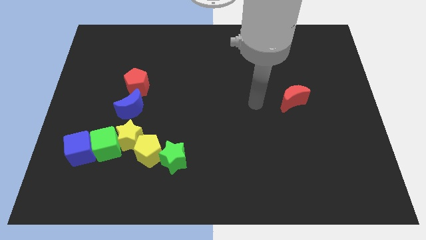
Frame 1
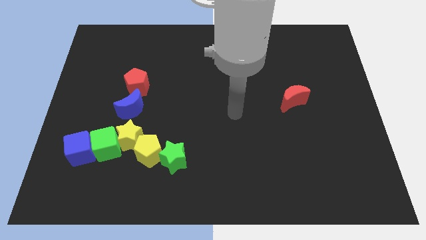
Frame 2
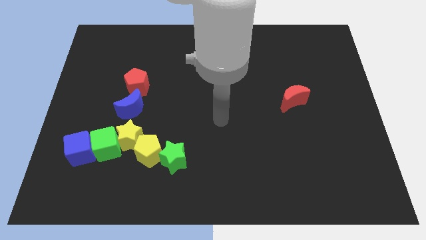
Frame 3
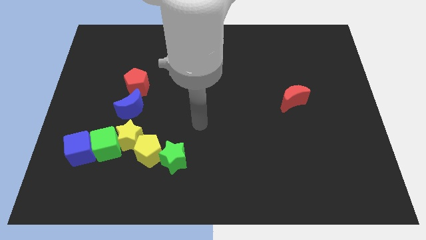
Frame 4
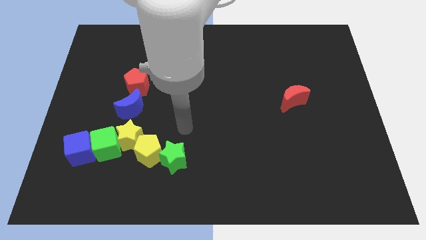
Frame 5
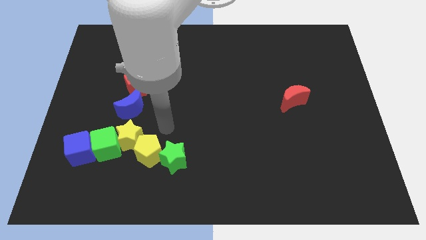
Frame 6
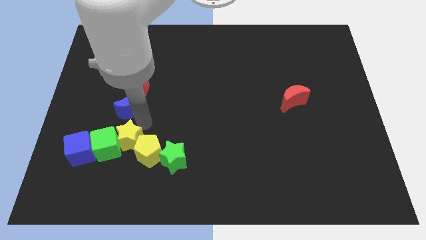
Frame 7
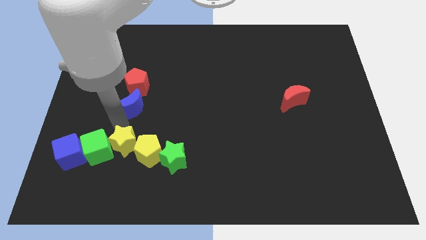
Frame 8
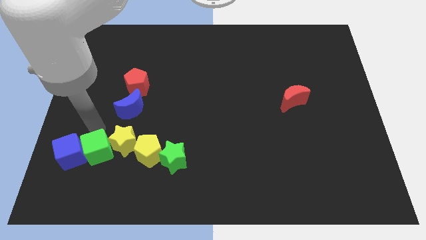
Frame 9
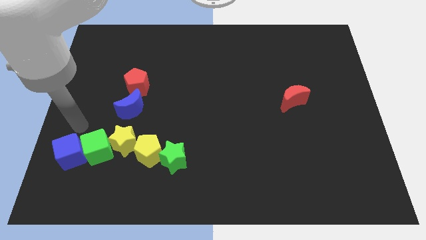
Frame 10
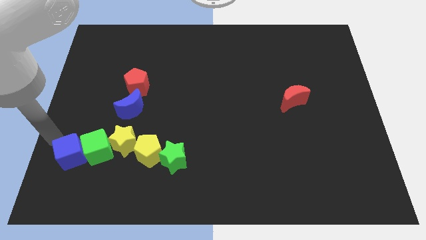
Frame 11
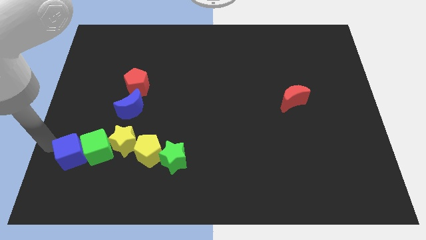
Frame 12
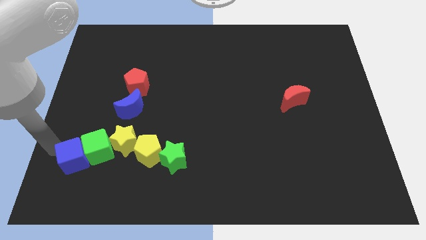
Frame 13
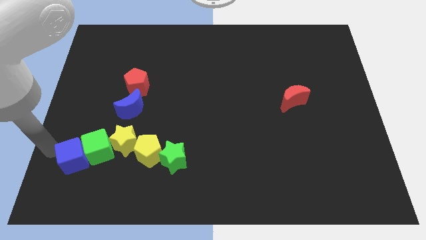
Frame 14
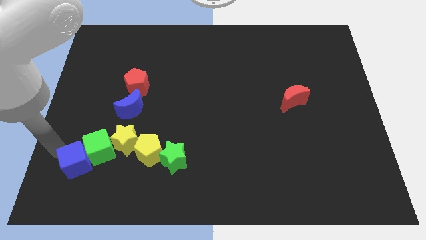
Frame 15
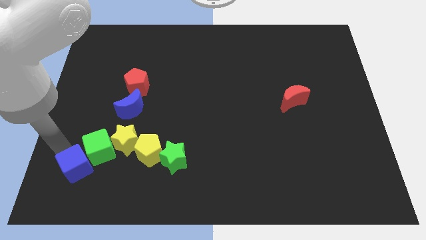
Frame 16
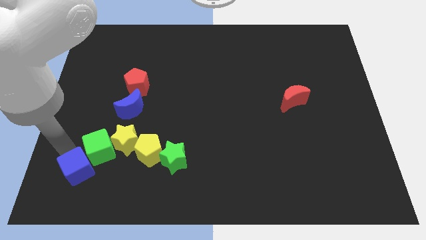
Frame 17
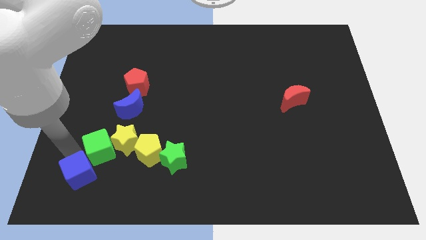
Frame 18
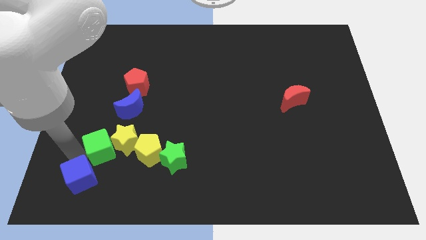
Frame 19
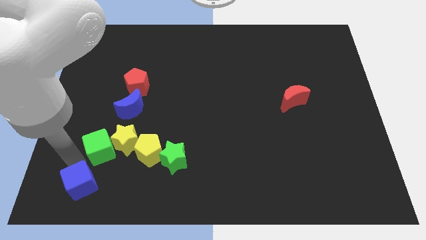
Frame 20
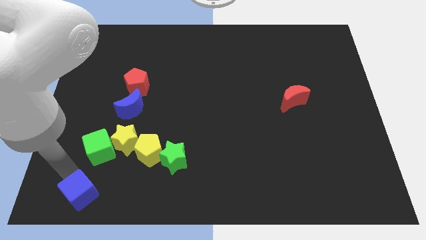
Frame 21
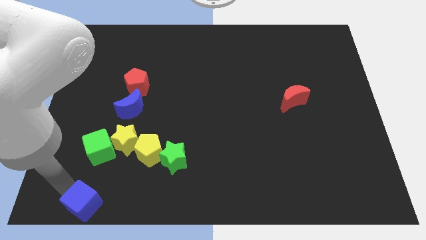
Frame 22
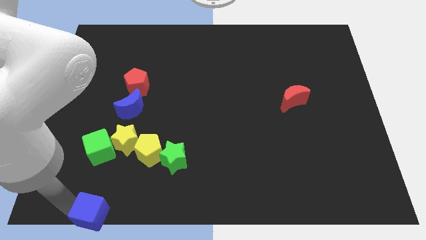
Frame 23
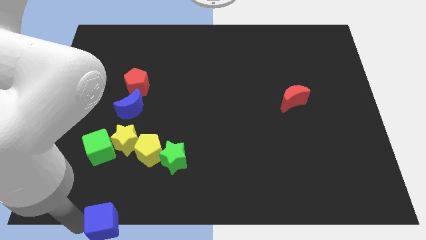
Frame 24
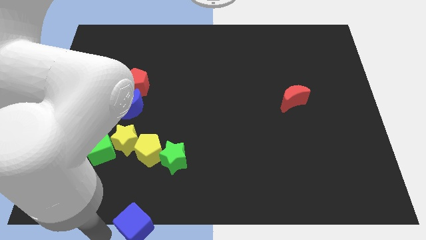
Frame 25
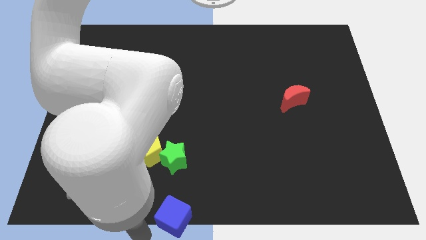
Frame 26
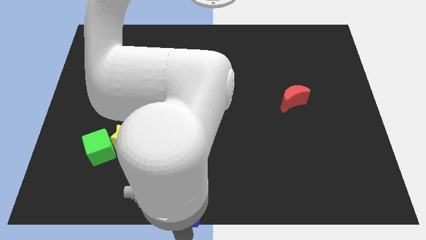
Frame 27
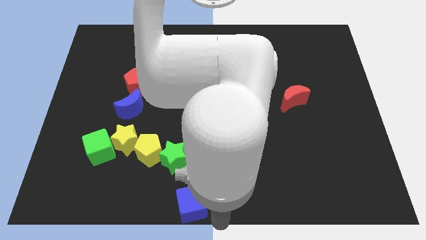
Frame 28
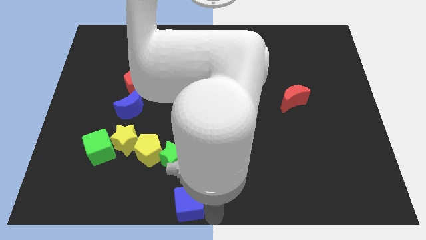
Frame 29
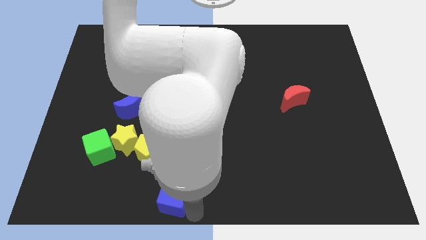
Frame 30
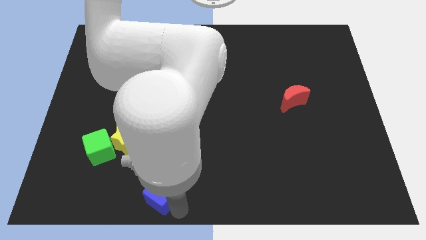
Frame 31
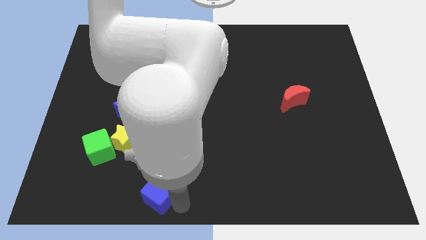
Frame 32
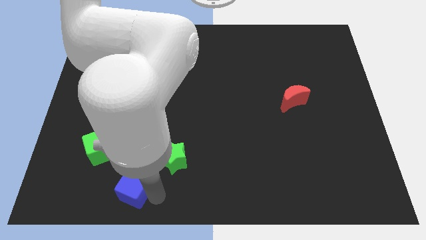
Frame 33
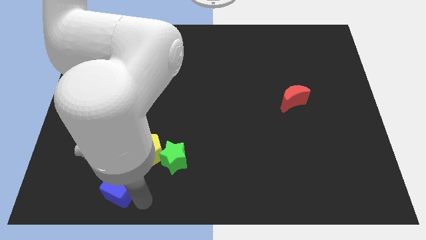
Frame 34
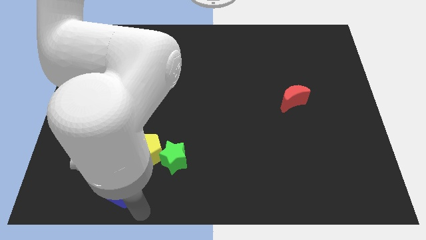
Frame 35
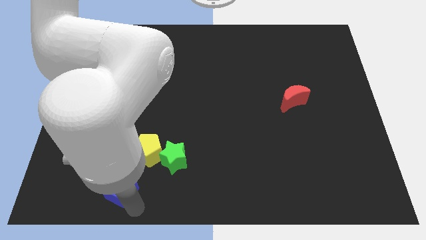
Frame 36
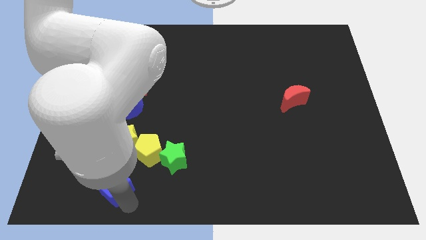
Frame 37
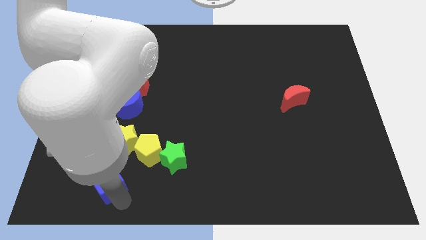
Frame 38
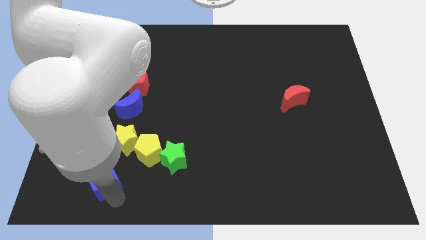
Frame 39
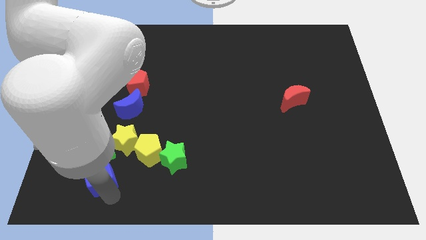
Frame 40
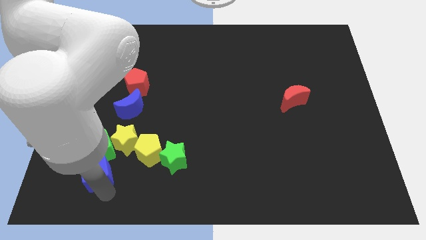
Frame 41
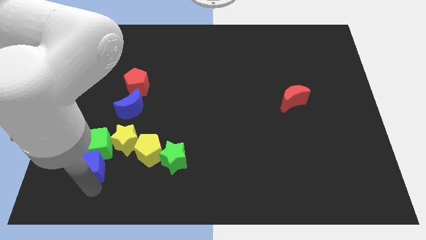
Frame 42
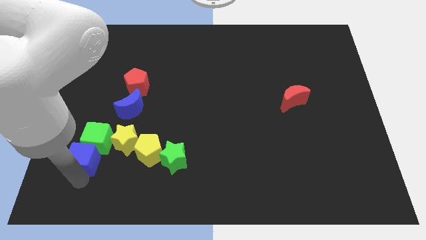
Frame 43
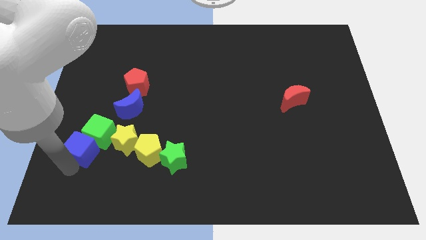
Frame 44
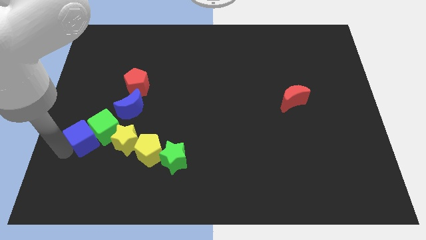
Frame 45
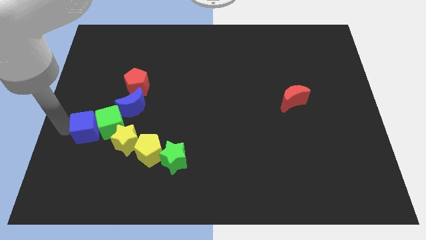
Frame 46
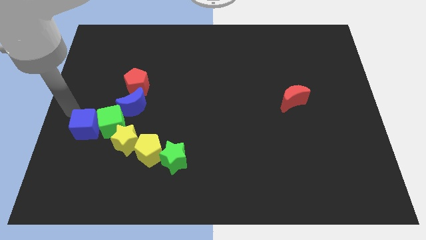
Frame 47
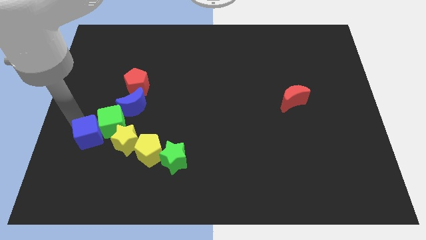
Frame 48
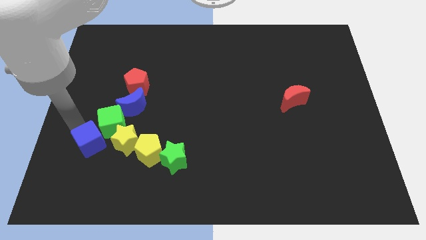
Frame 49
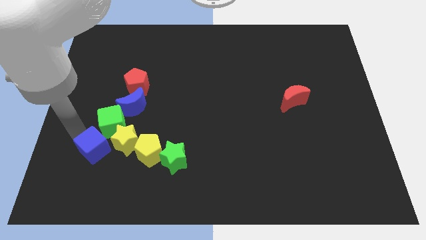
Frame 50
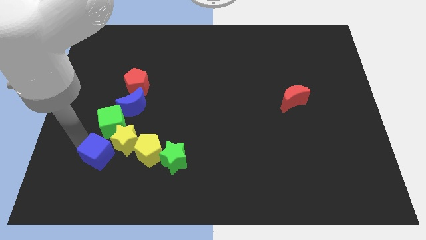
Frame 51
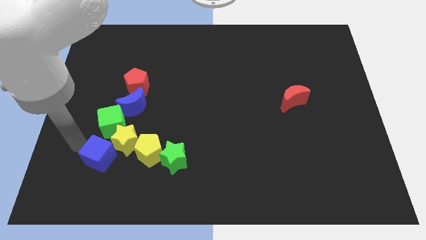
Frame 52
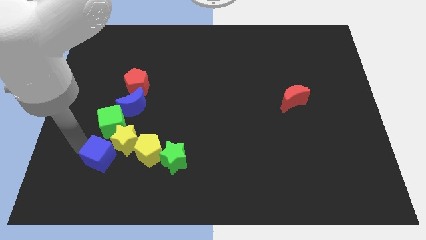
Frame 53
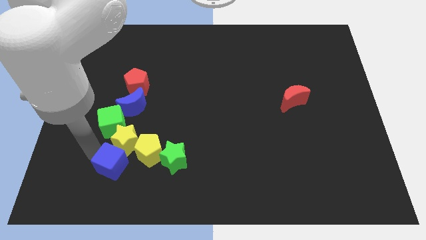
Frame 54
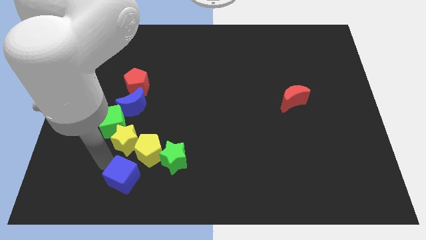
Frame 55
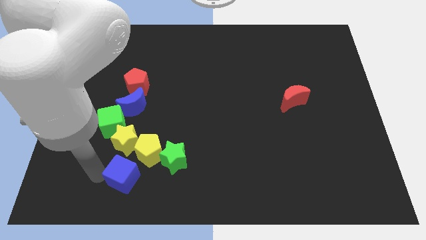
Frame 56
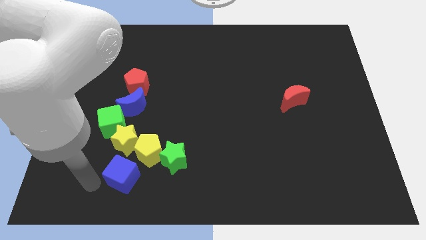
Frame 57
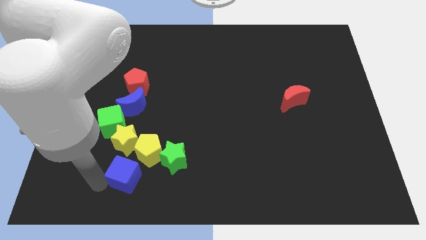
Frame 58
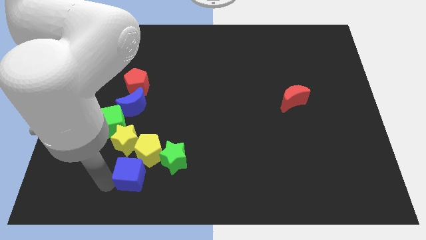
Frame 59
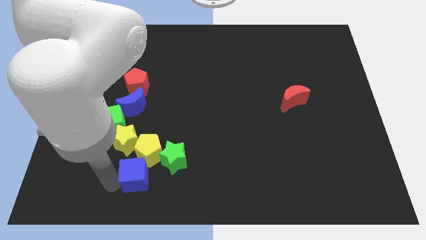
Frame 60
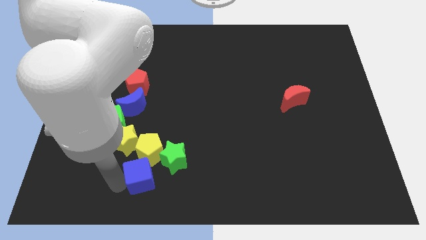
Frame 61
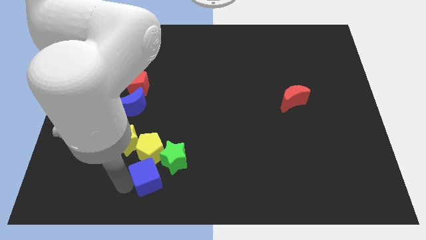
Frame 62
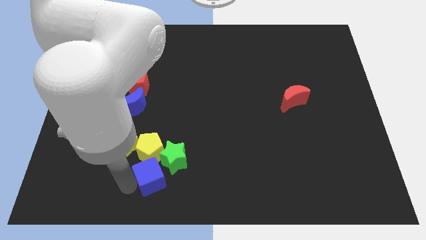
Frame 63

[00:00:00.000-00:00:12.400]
slide the blue cube close to the green star
